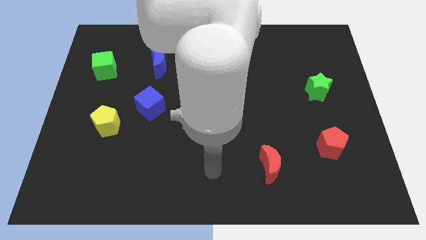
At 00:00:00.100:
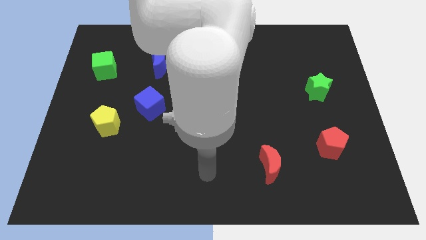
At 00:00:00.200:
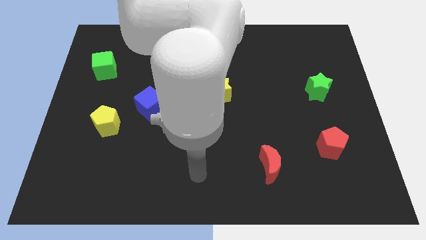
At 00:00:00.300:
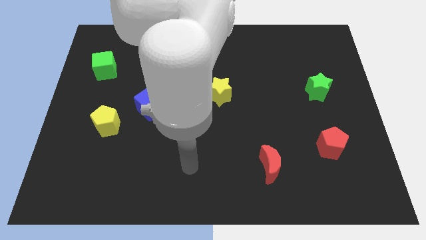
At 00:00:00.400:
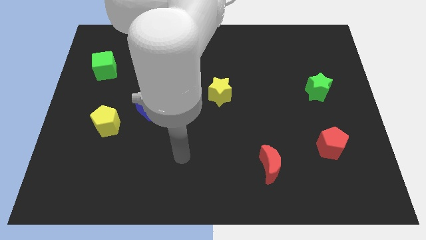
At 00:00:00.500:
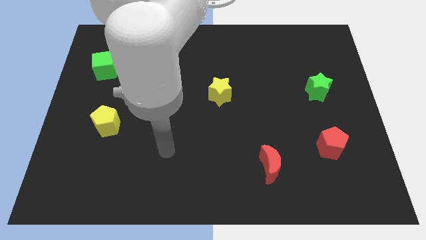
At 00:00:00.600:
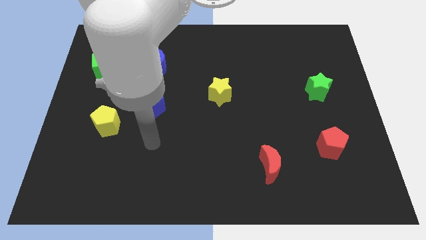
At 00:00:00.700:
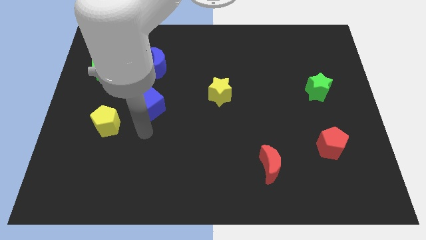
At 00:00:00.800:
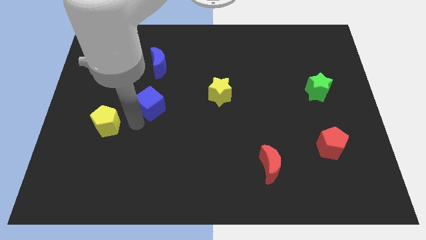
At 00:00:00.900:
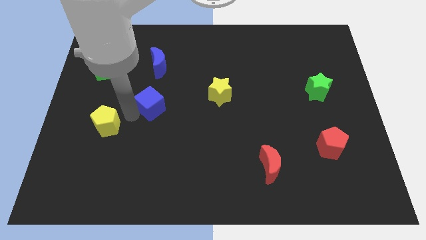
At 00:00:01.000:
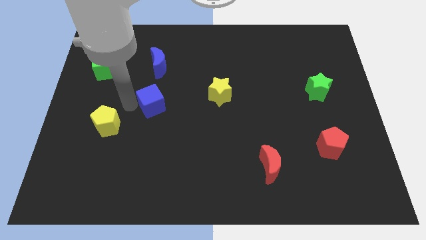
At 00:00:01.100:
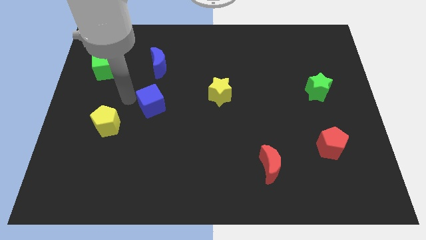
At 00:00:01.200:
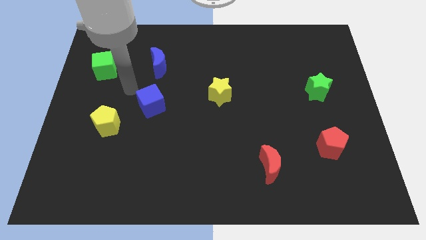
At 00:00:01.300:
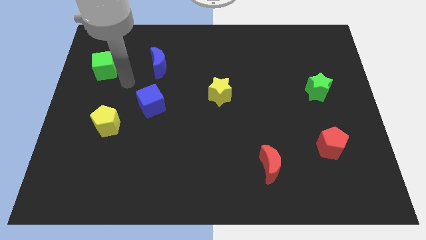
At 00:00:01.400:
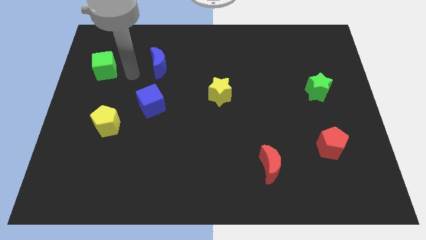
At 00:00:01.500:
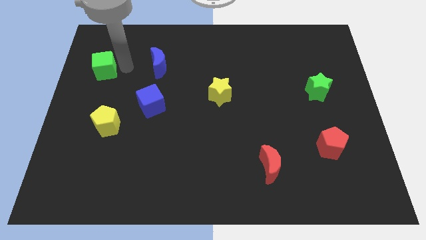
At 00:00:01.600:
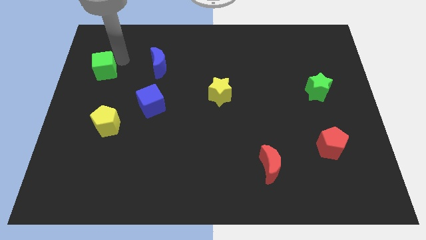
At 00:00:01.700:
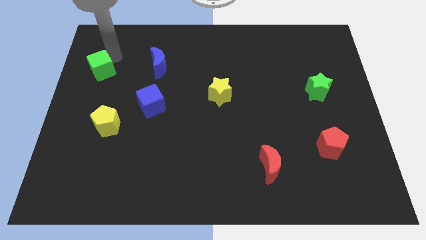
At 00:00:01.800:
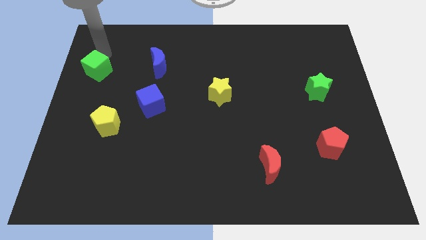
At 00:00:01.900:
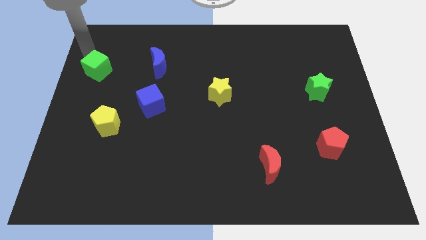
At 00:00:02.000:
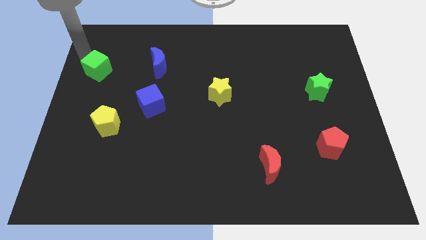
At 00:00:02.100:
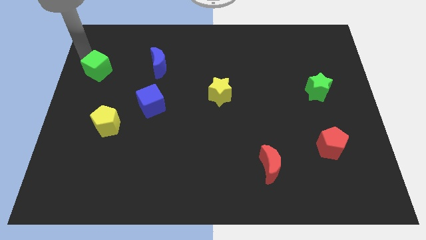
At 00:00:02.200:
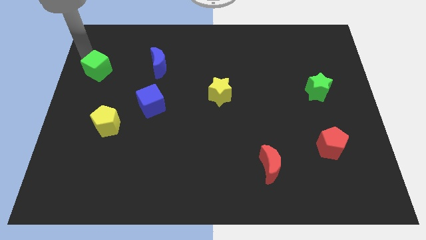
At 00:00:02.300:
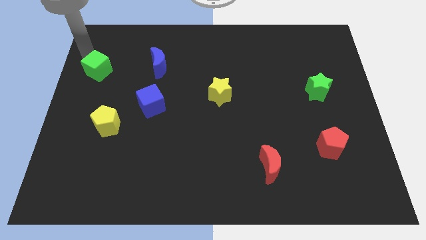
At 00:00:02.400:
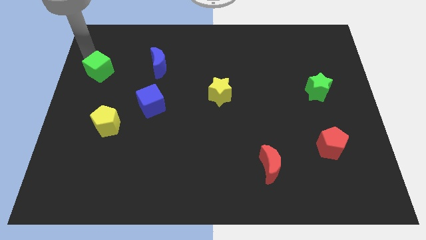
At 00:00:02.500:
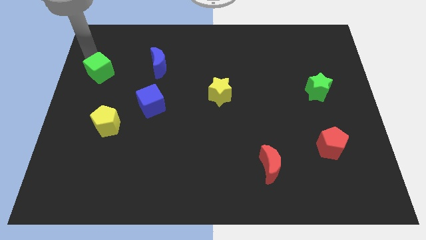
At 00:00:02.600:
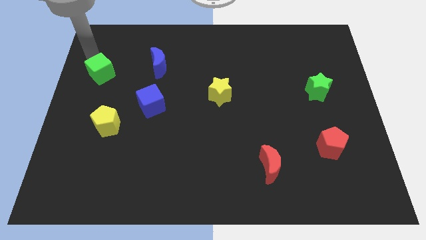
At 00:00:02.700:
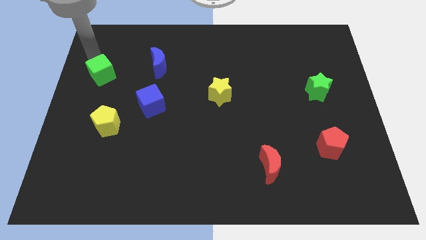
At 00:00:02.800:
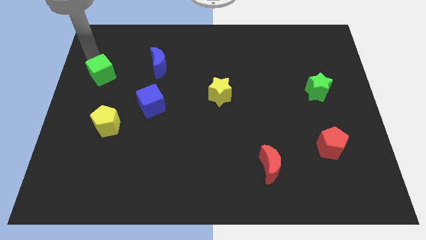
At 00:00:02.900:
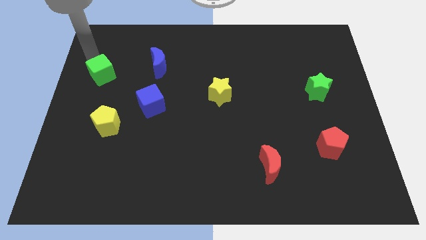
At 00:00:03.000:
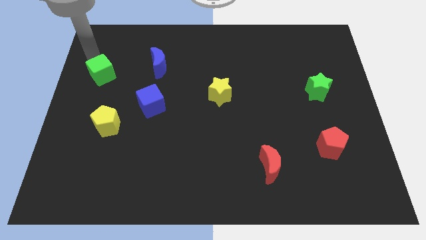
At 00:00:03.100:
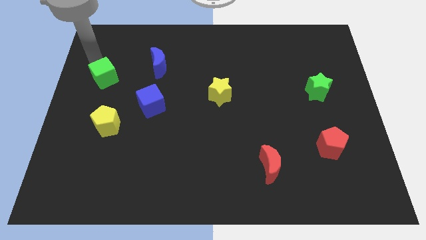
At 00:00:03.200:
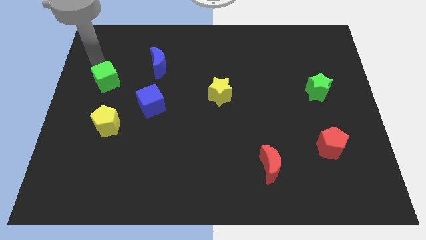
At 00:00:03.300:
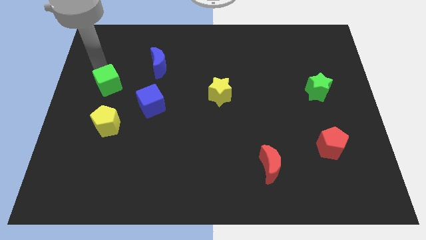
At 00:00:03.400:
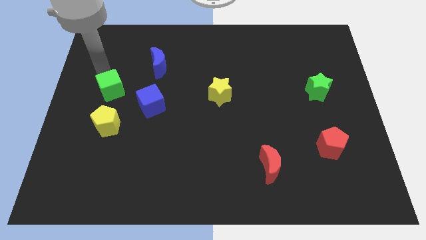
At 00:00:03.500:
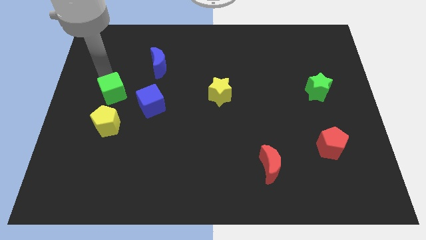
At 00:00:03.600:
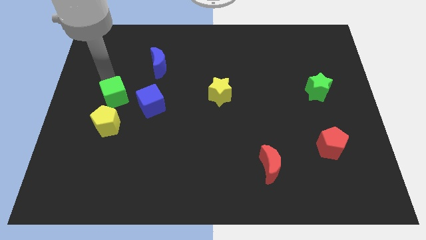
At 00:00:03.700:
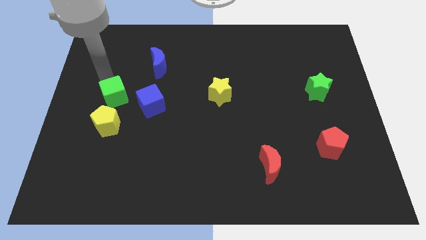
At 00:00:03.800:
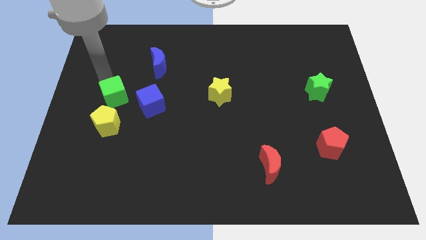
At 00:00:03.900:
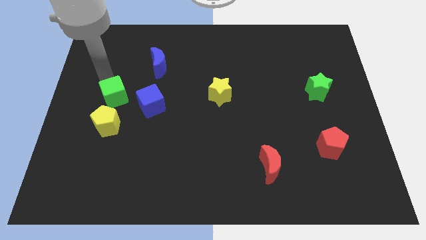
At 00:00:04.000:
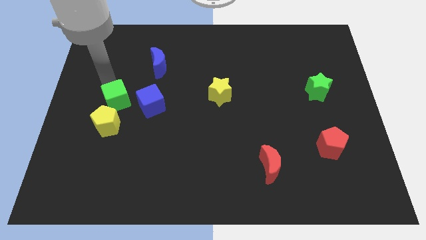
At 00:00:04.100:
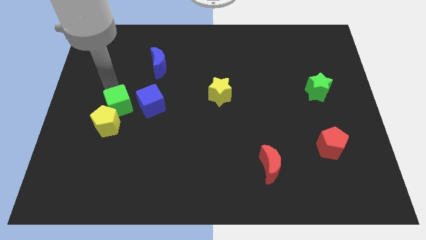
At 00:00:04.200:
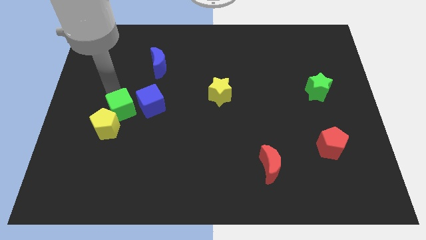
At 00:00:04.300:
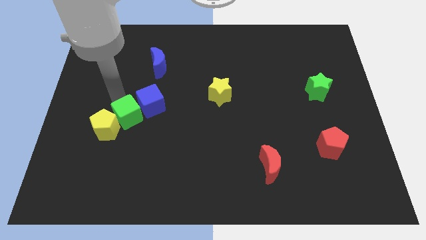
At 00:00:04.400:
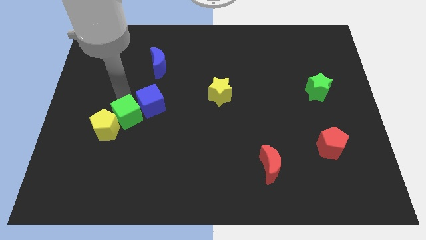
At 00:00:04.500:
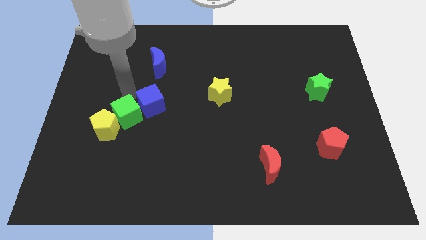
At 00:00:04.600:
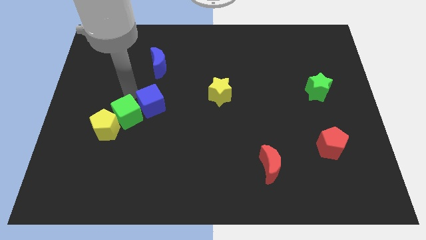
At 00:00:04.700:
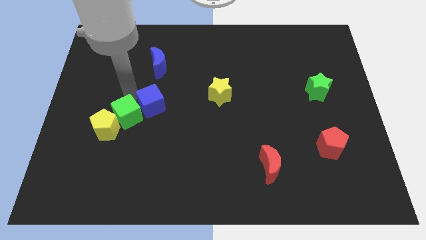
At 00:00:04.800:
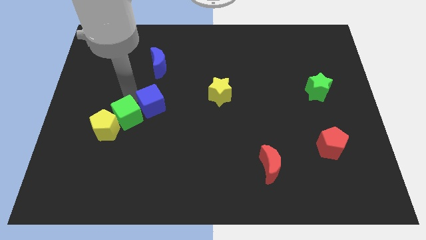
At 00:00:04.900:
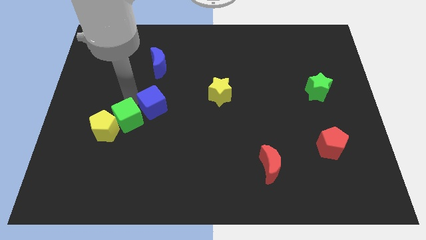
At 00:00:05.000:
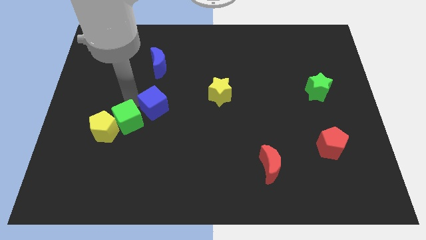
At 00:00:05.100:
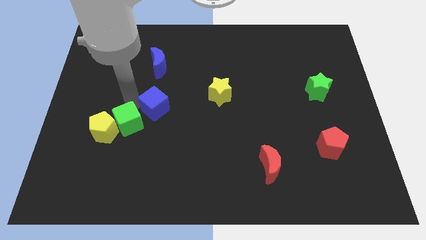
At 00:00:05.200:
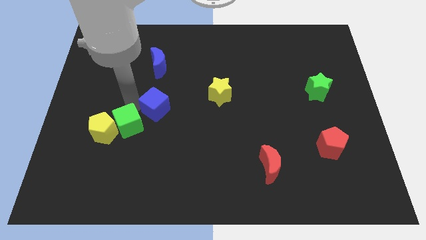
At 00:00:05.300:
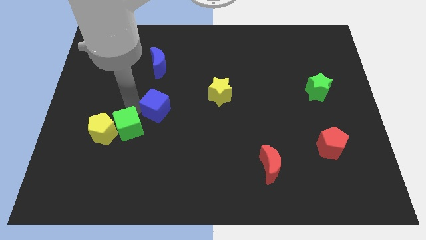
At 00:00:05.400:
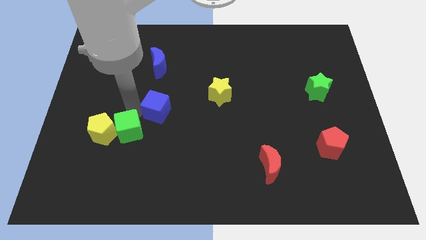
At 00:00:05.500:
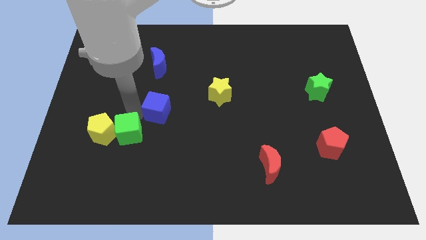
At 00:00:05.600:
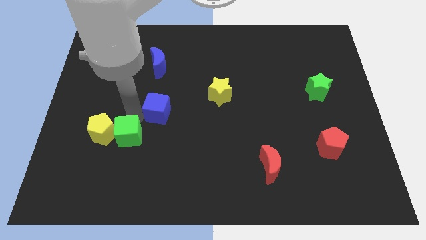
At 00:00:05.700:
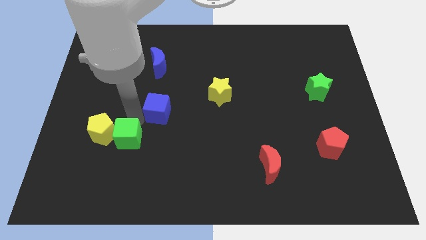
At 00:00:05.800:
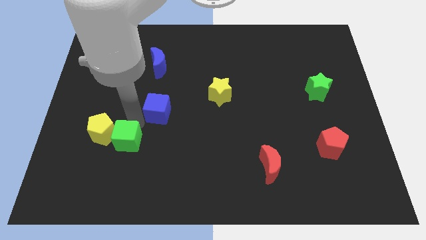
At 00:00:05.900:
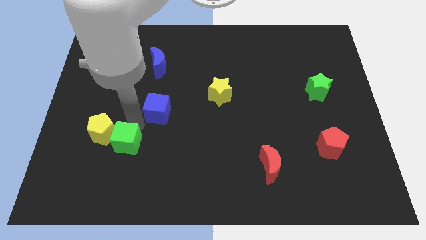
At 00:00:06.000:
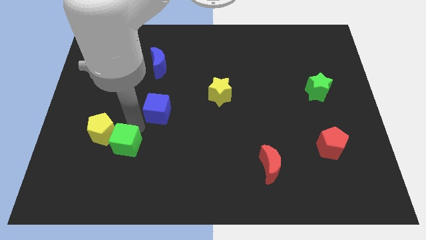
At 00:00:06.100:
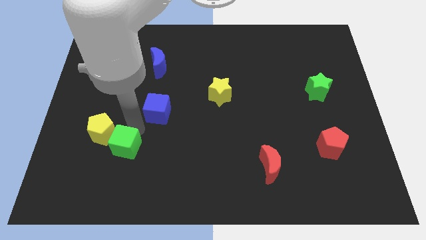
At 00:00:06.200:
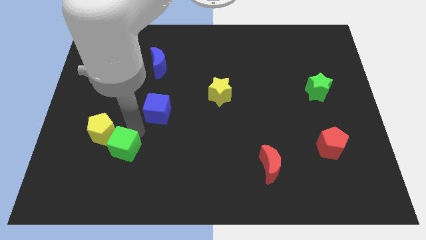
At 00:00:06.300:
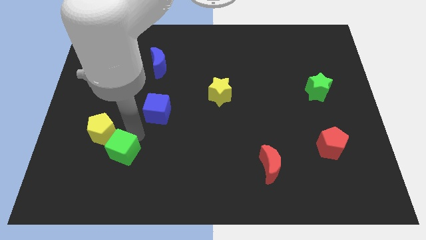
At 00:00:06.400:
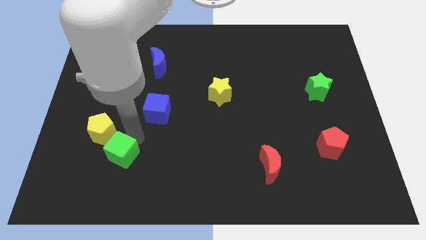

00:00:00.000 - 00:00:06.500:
push the green cube below the yellow pentagon
